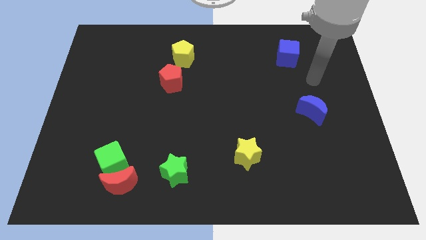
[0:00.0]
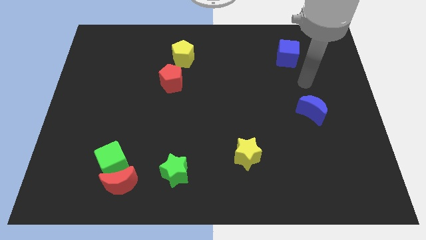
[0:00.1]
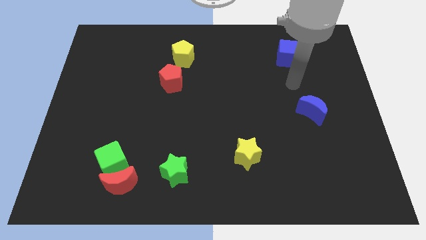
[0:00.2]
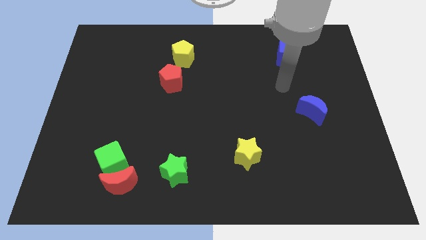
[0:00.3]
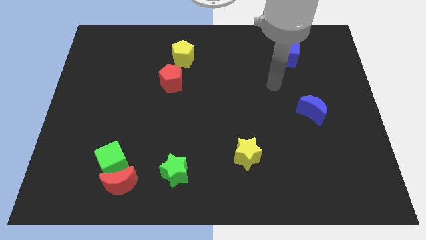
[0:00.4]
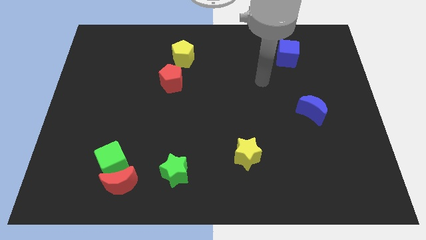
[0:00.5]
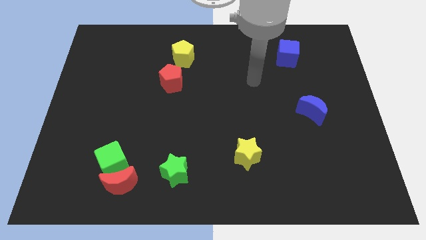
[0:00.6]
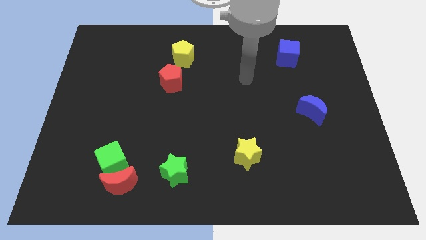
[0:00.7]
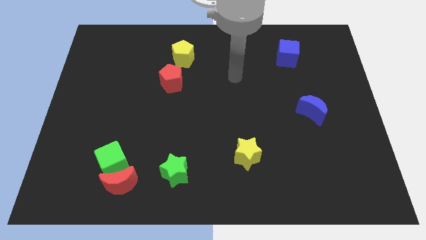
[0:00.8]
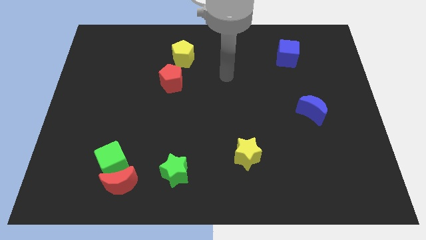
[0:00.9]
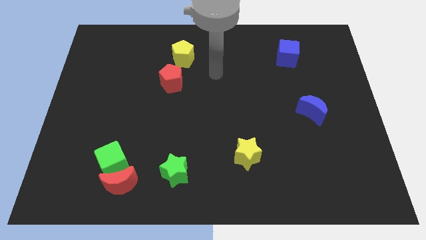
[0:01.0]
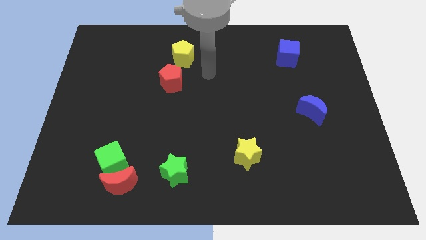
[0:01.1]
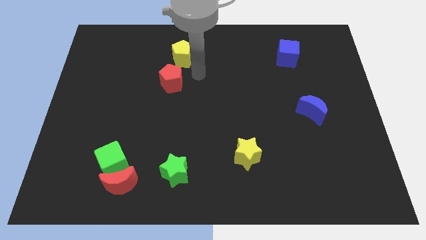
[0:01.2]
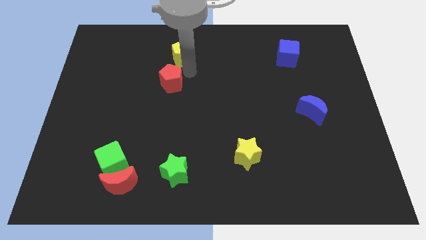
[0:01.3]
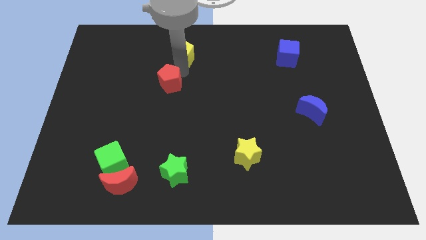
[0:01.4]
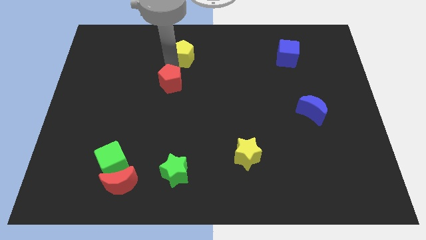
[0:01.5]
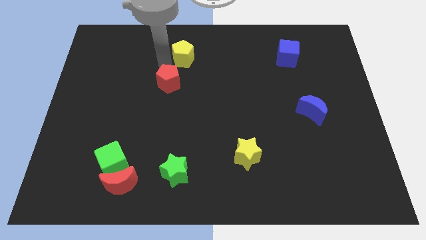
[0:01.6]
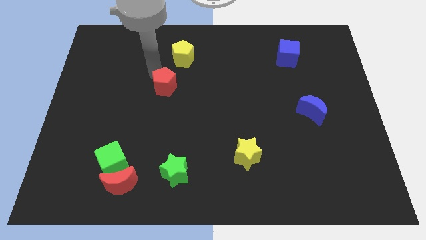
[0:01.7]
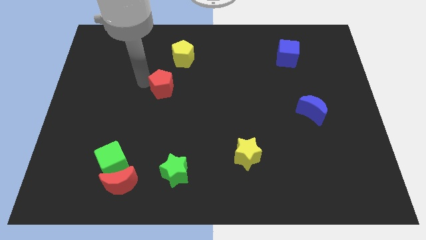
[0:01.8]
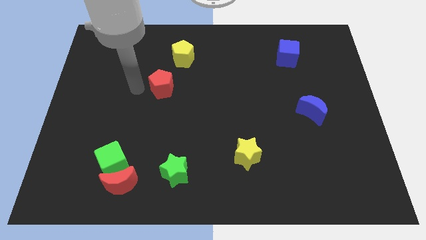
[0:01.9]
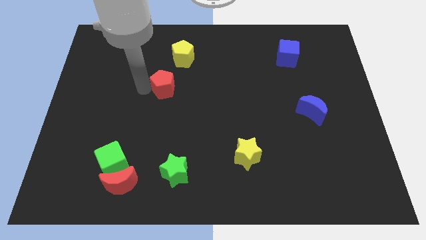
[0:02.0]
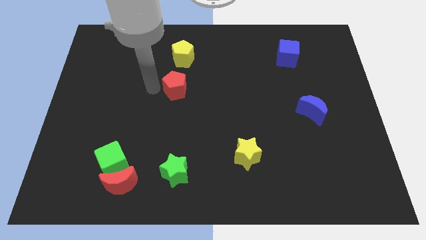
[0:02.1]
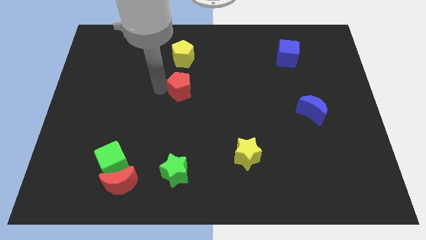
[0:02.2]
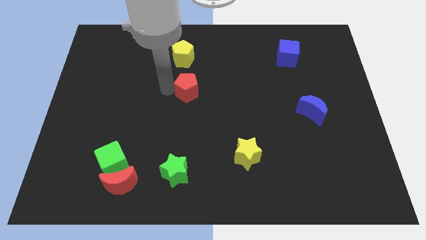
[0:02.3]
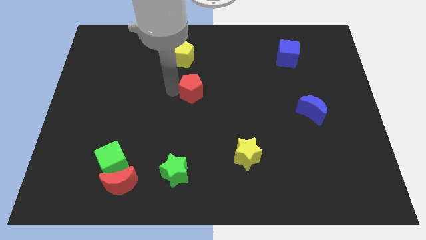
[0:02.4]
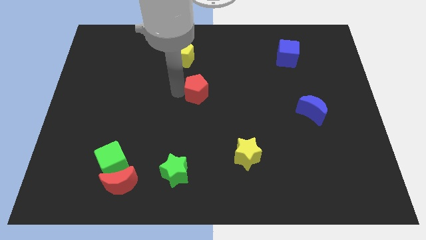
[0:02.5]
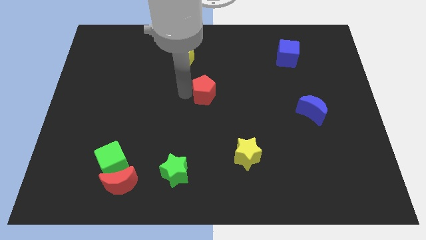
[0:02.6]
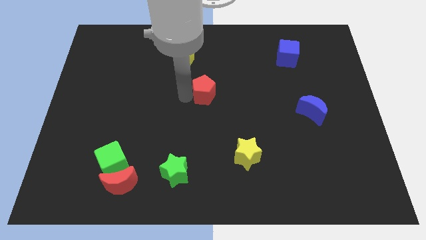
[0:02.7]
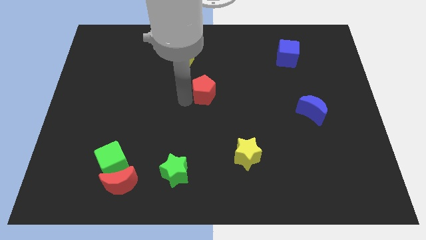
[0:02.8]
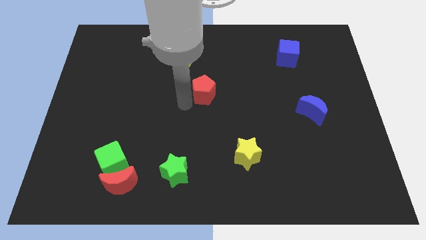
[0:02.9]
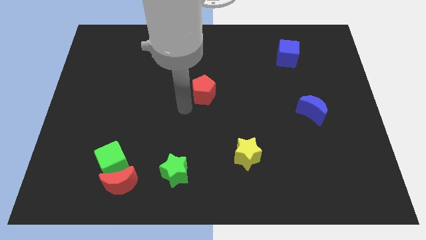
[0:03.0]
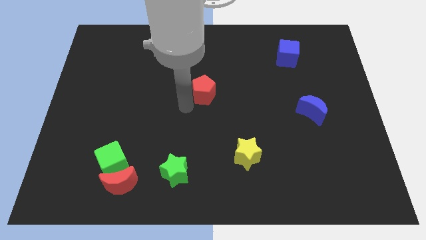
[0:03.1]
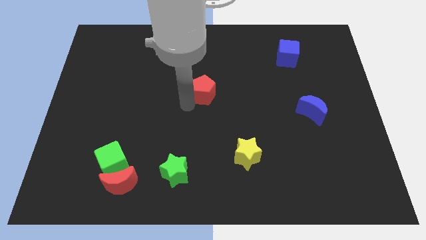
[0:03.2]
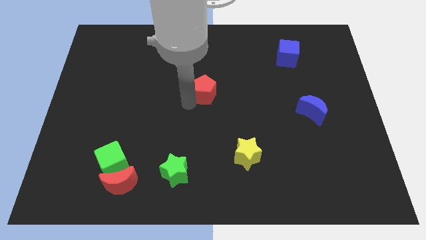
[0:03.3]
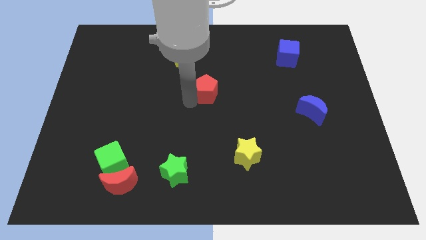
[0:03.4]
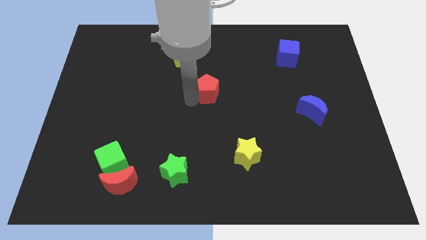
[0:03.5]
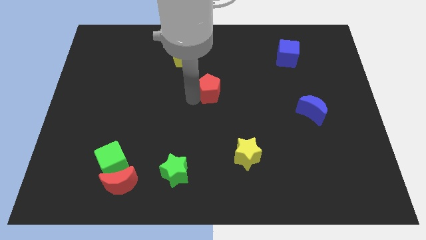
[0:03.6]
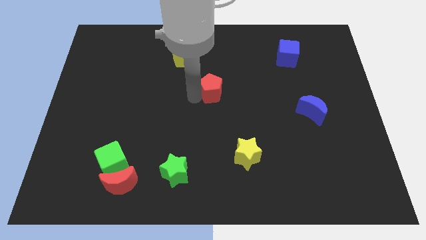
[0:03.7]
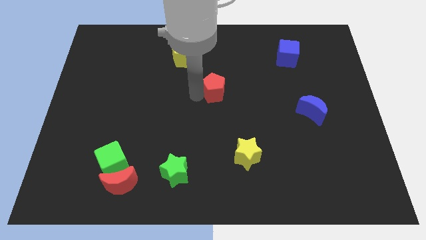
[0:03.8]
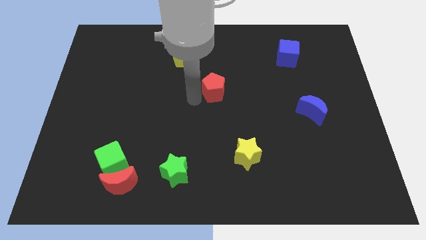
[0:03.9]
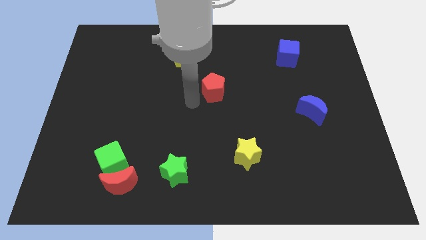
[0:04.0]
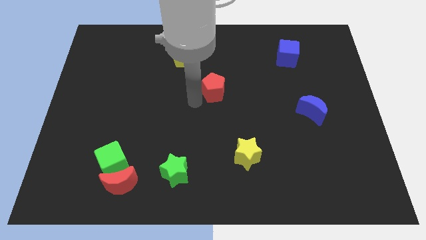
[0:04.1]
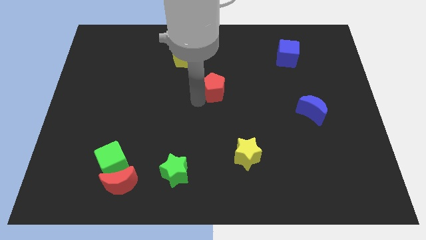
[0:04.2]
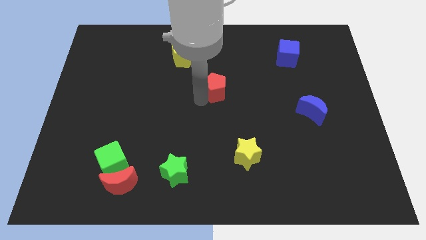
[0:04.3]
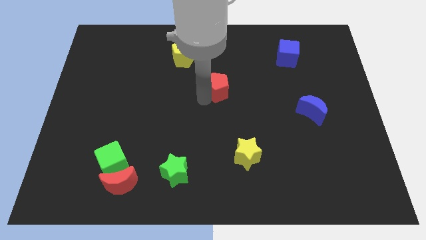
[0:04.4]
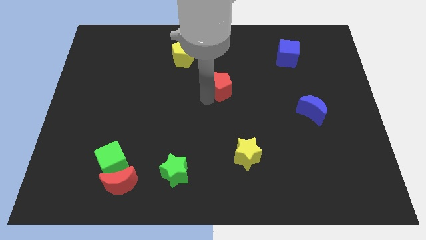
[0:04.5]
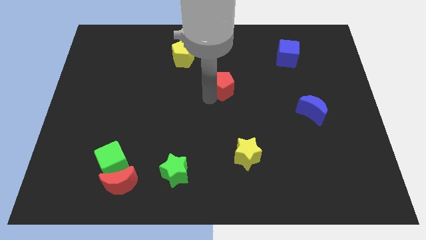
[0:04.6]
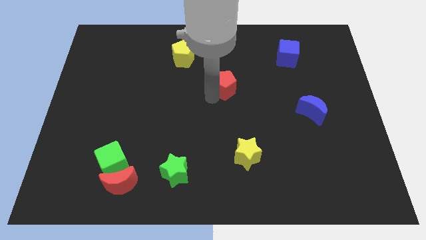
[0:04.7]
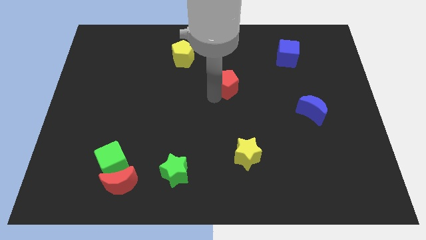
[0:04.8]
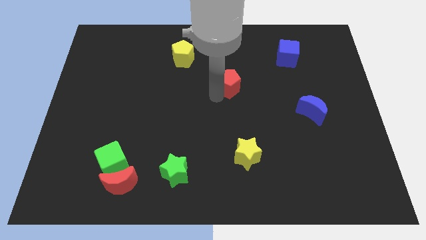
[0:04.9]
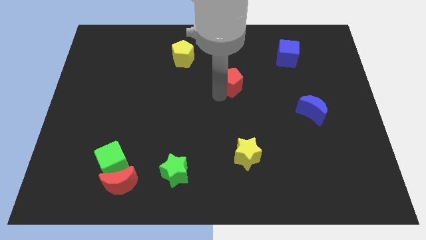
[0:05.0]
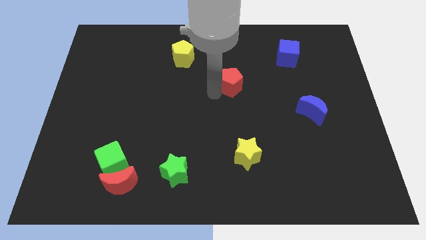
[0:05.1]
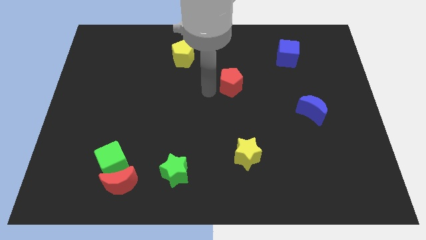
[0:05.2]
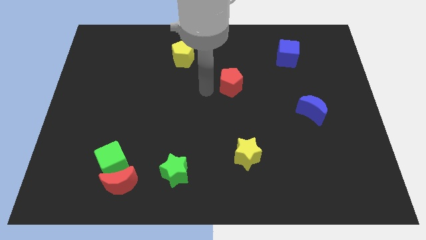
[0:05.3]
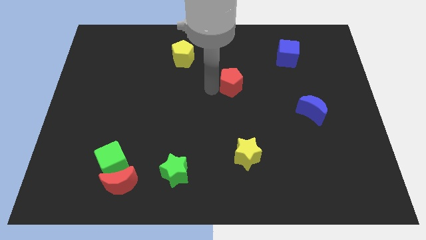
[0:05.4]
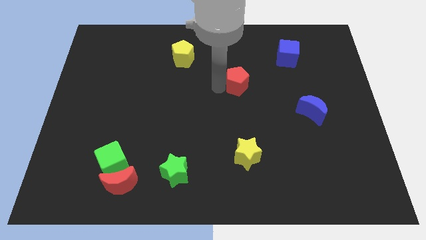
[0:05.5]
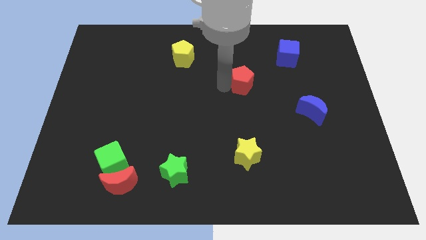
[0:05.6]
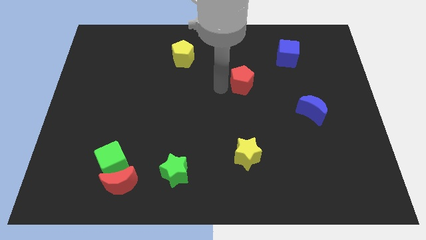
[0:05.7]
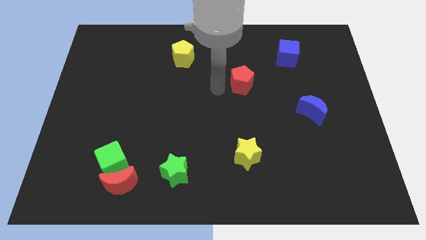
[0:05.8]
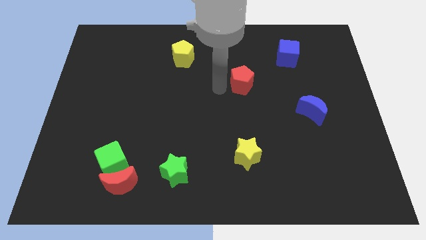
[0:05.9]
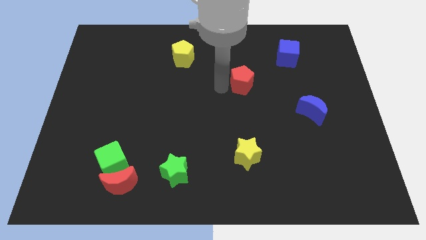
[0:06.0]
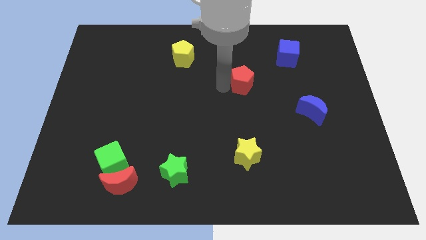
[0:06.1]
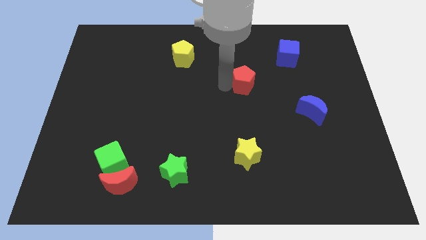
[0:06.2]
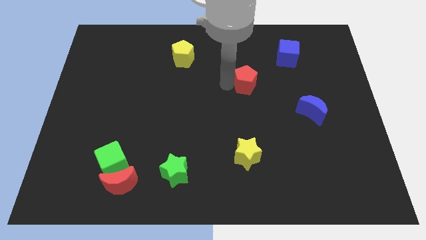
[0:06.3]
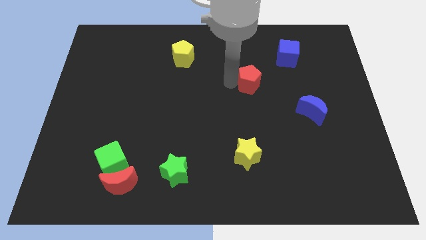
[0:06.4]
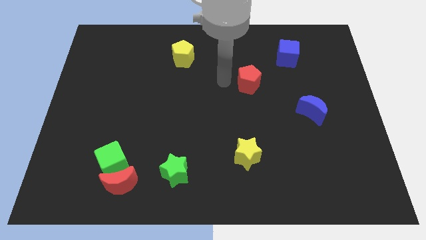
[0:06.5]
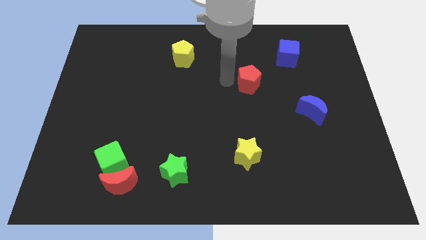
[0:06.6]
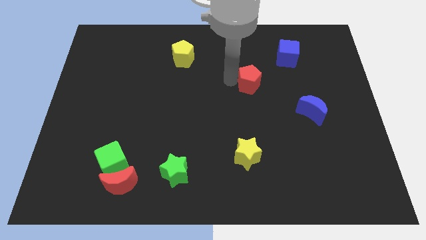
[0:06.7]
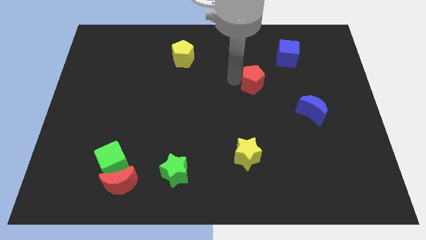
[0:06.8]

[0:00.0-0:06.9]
push the red pentagon to the right

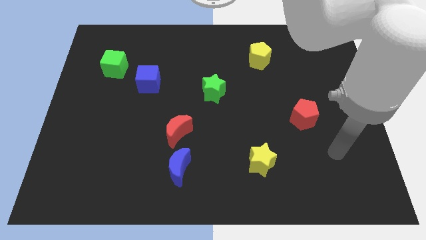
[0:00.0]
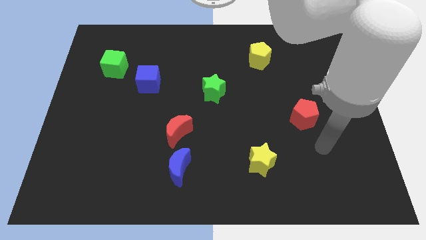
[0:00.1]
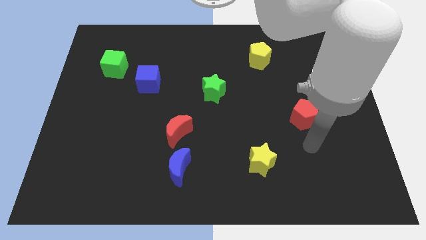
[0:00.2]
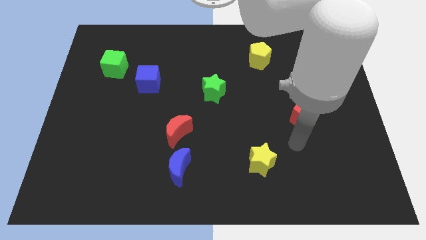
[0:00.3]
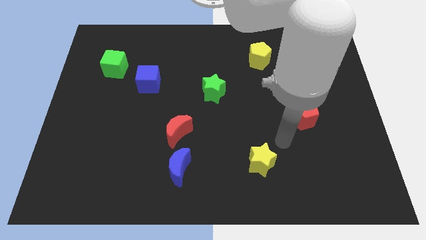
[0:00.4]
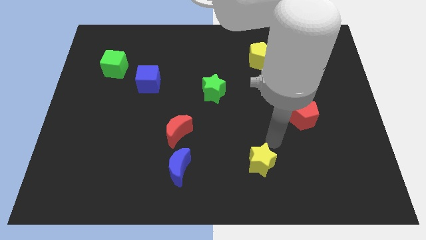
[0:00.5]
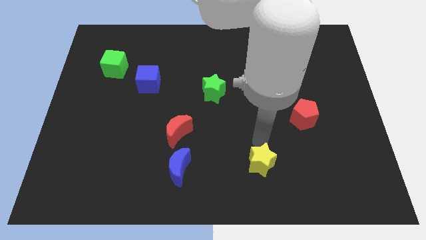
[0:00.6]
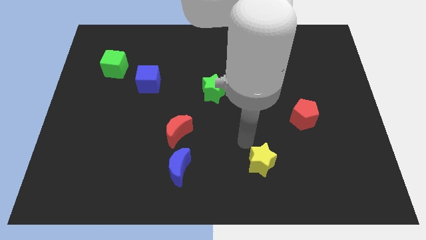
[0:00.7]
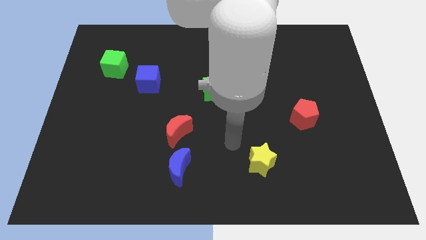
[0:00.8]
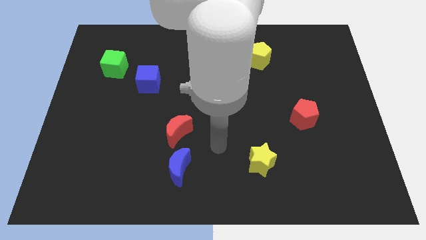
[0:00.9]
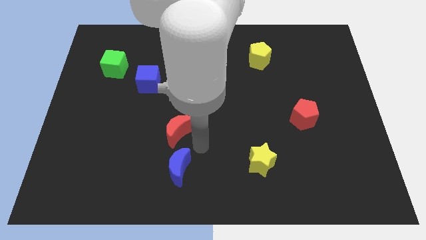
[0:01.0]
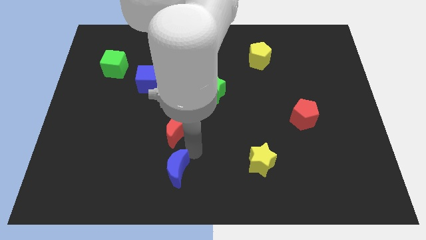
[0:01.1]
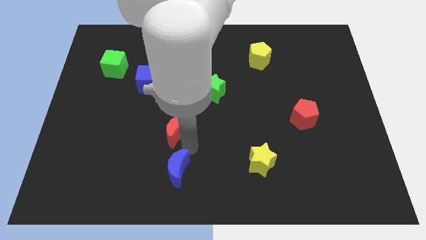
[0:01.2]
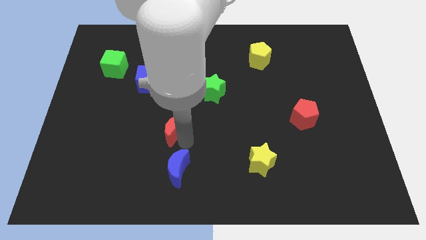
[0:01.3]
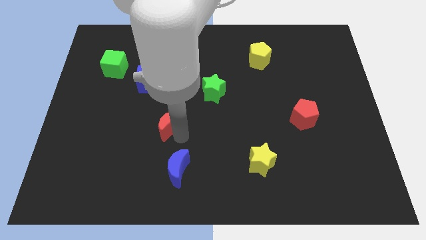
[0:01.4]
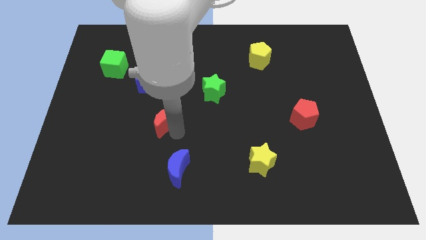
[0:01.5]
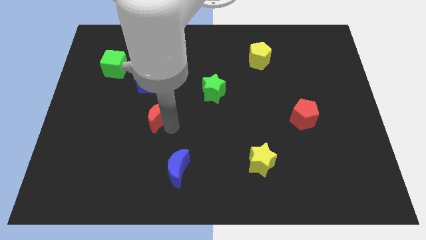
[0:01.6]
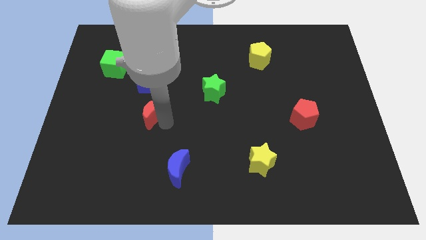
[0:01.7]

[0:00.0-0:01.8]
move the red moon upwards and to the left diagonally a bit
